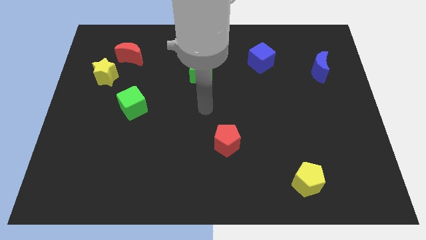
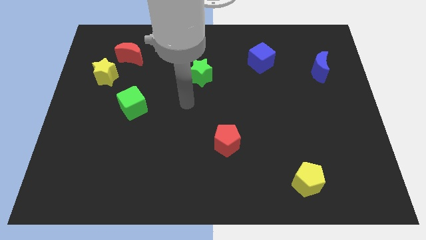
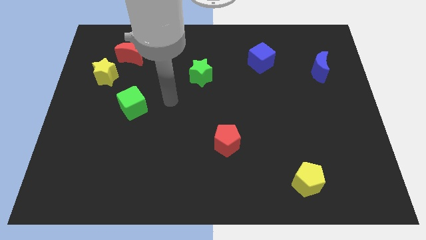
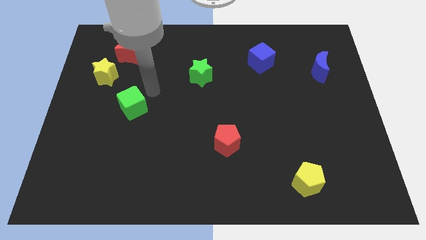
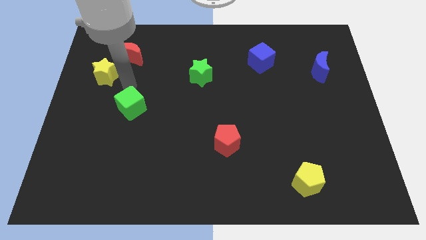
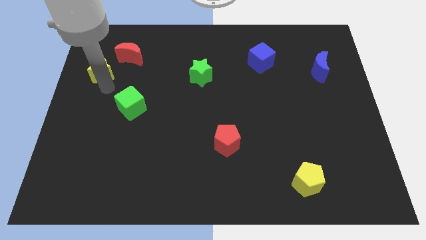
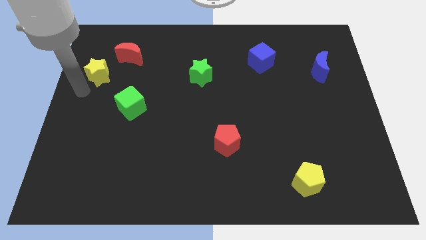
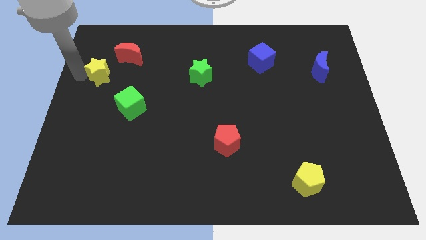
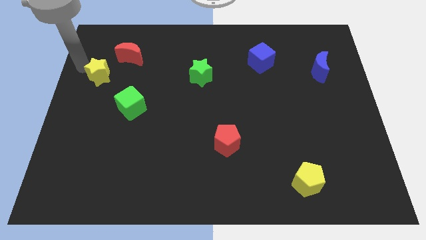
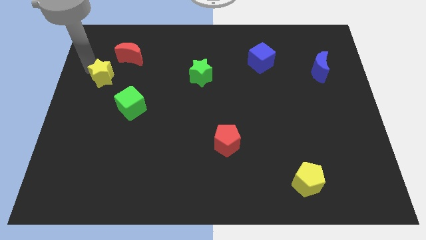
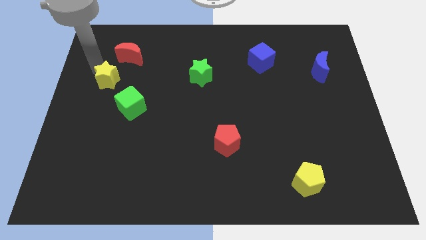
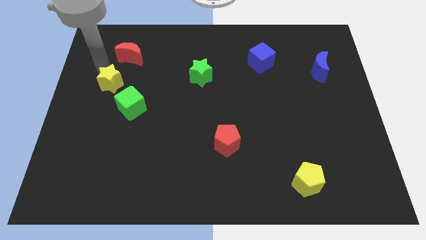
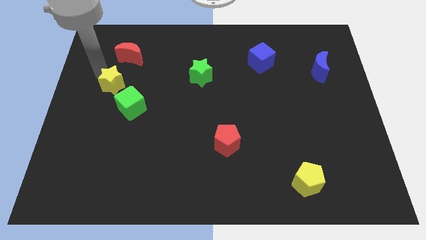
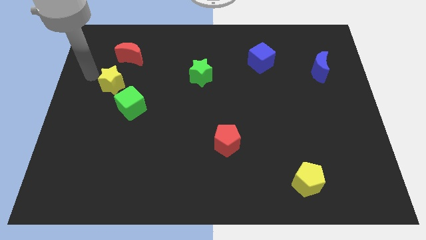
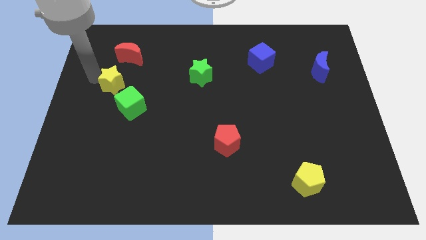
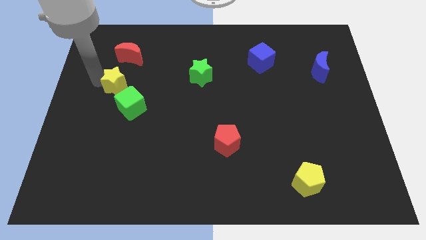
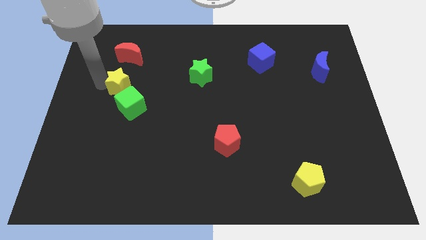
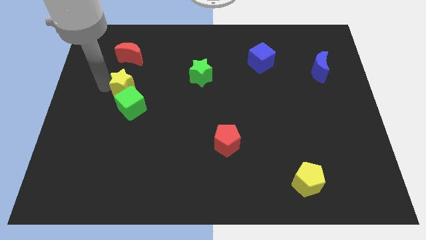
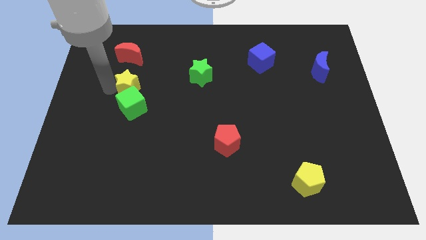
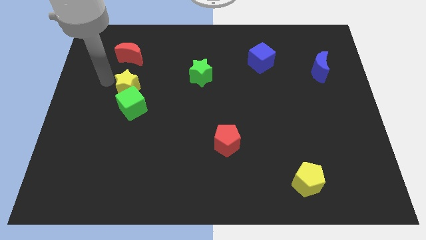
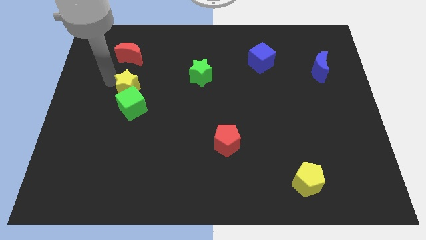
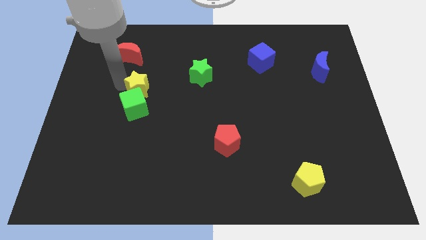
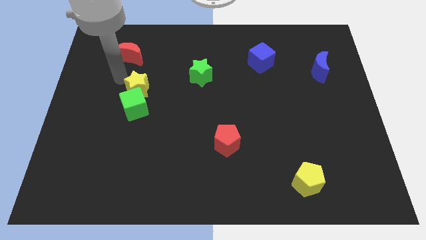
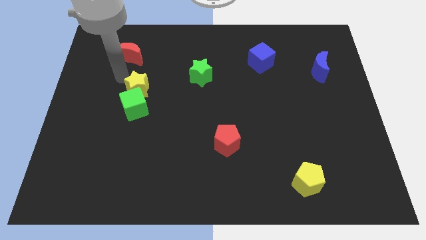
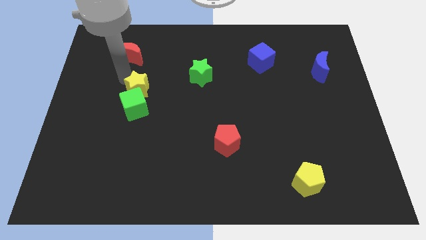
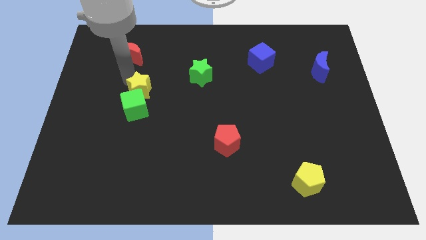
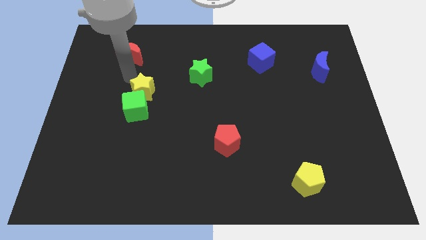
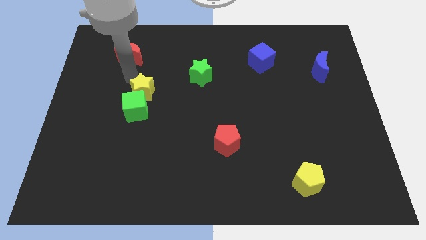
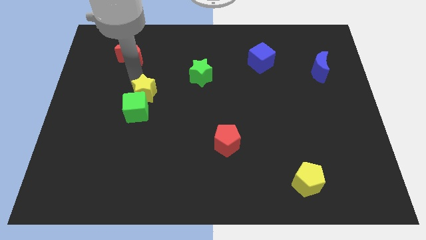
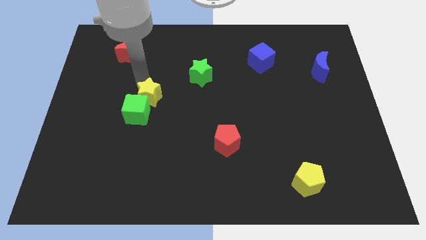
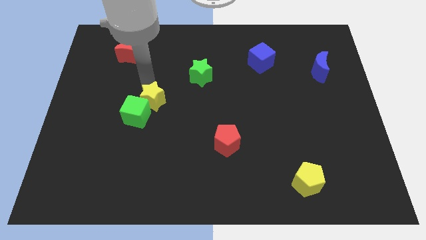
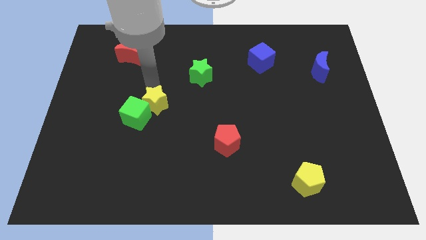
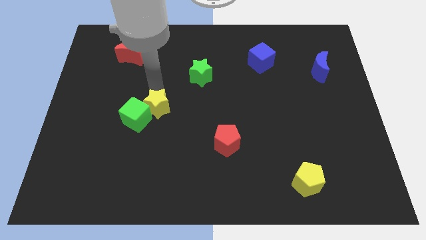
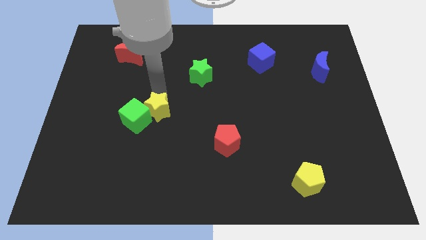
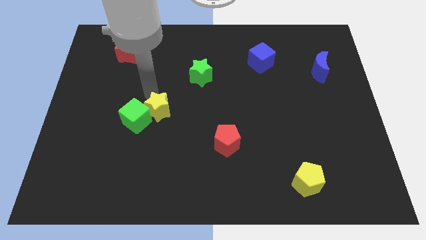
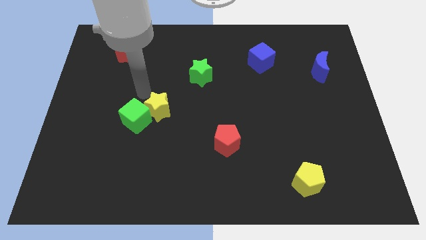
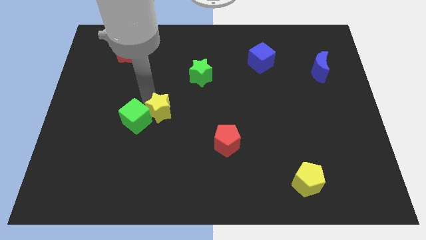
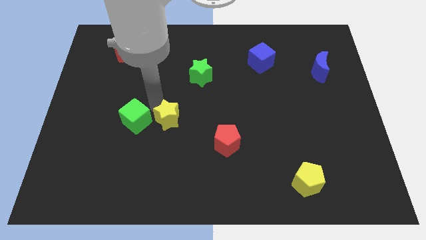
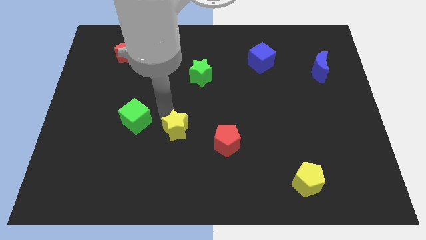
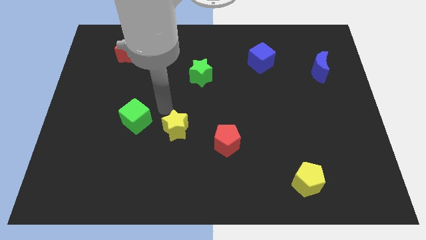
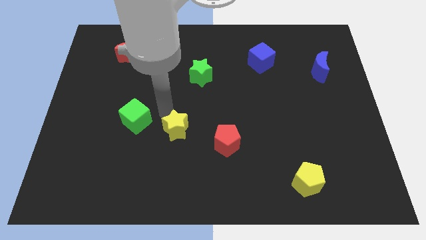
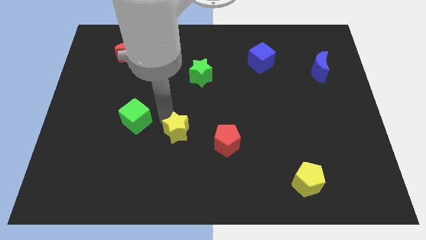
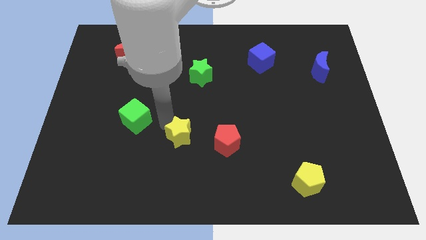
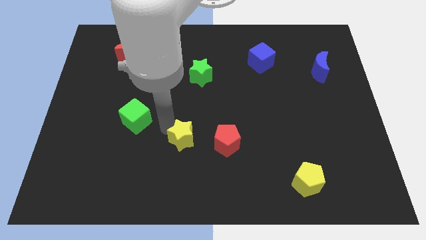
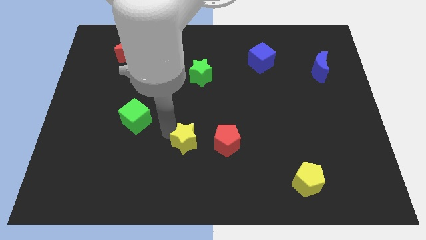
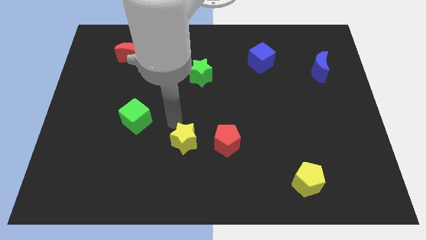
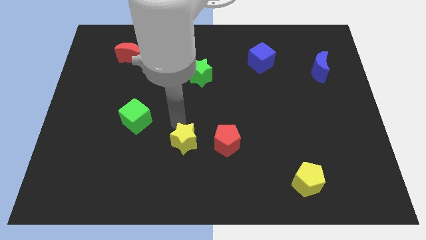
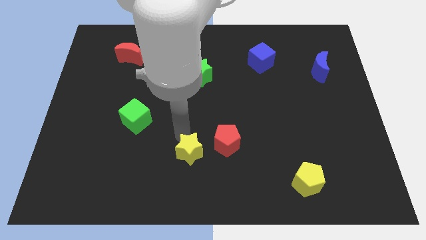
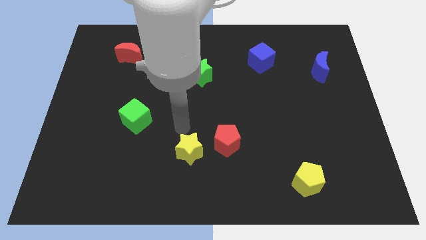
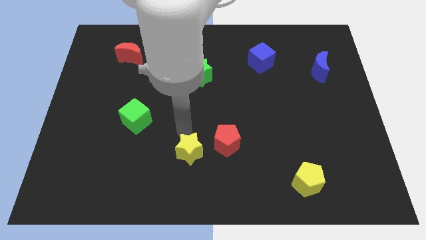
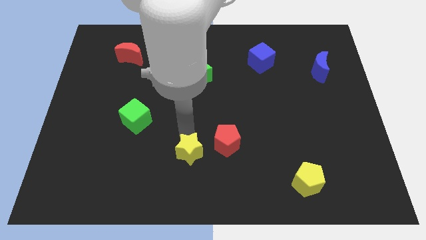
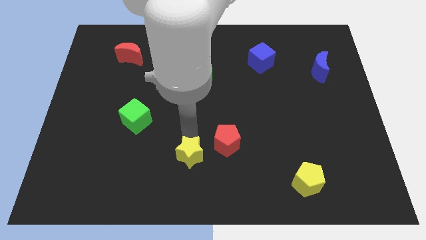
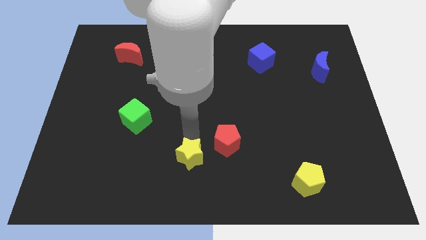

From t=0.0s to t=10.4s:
put the yellow star to the bottom

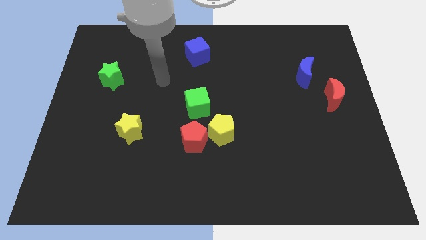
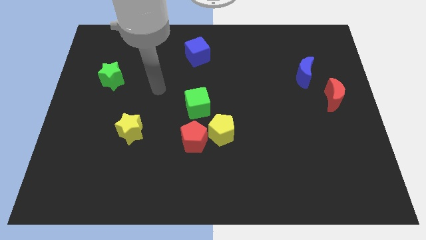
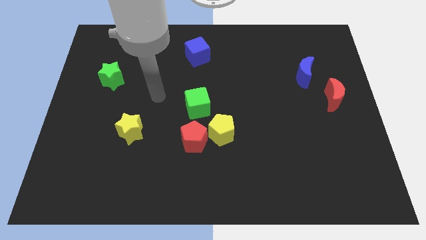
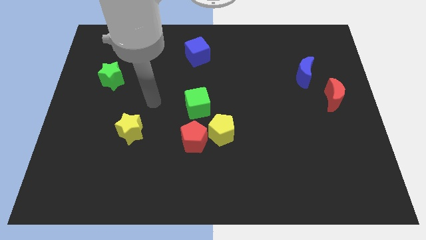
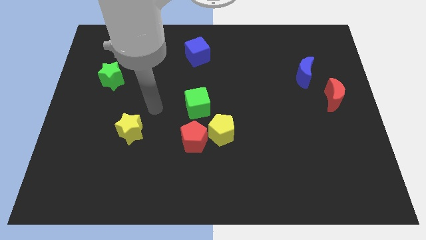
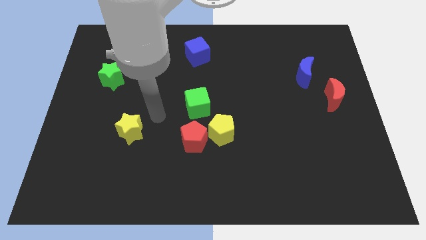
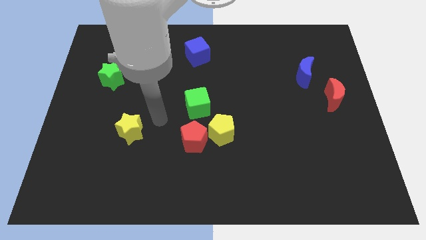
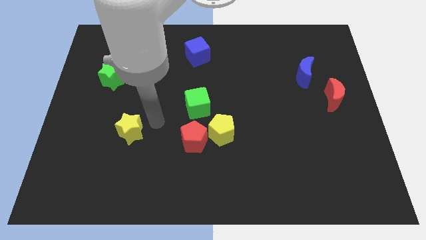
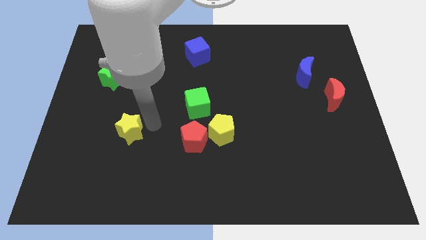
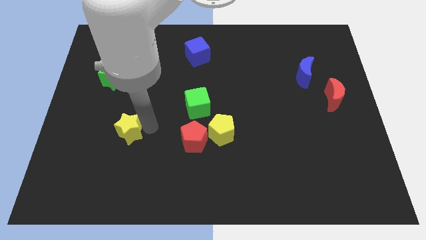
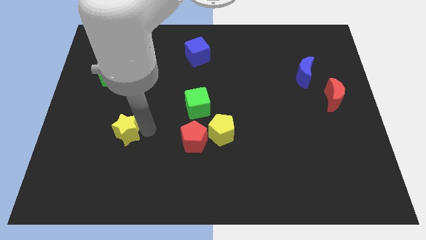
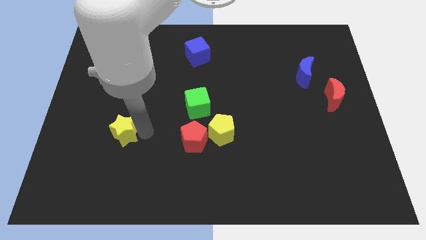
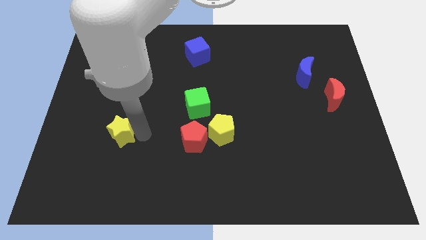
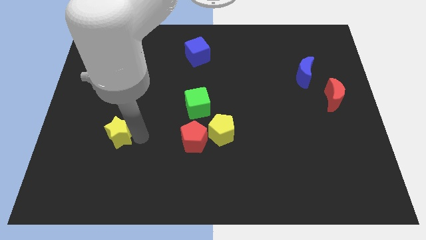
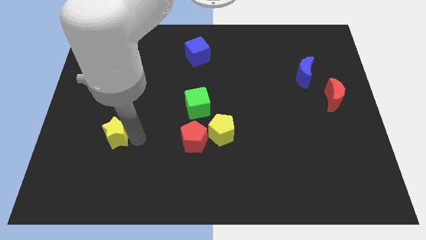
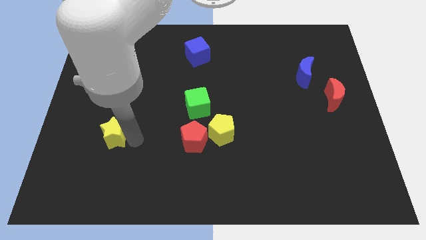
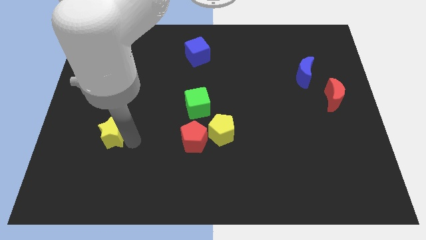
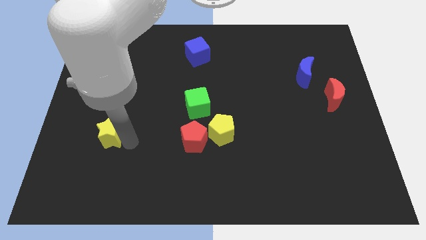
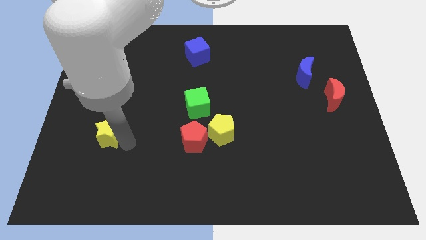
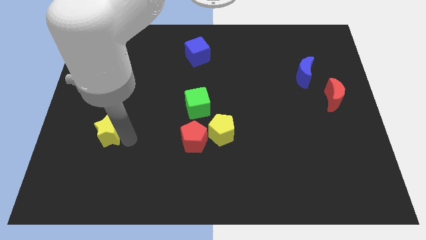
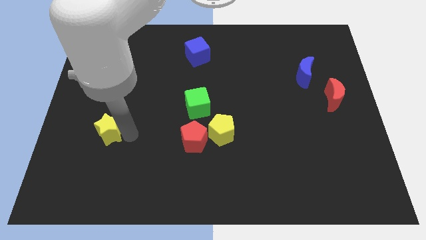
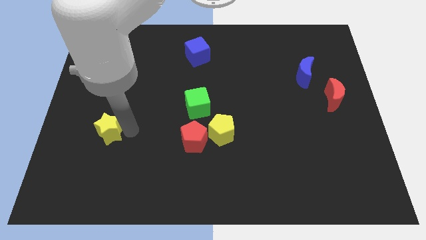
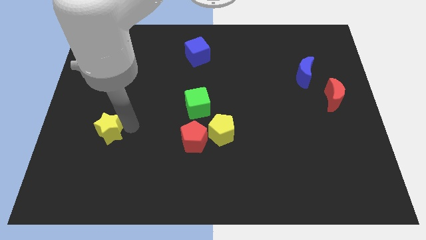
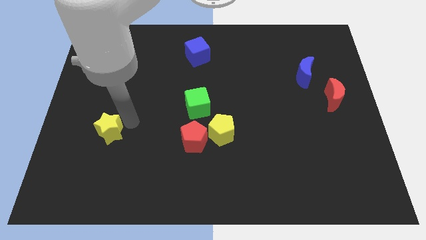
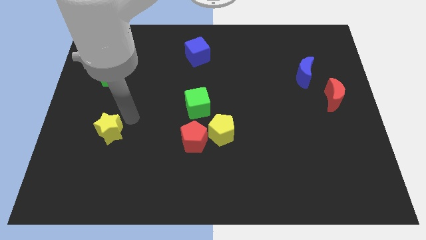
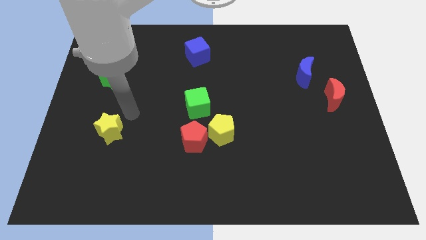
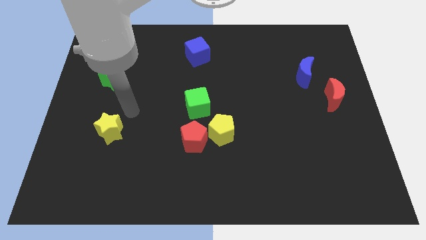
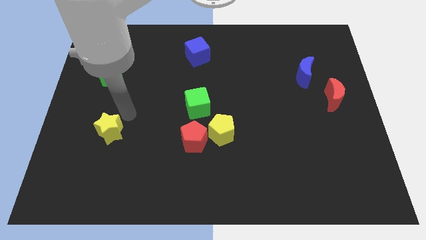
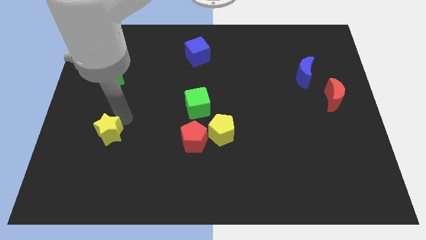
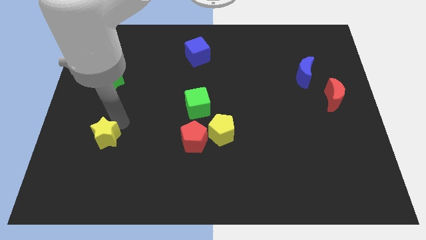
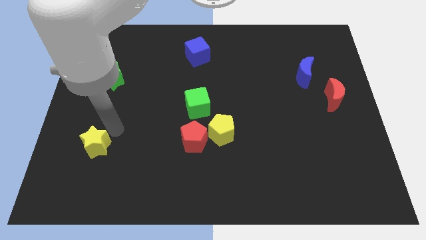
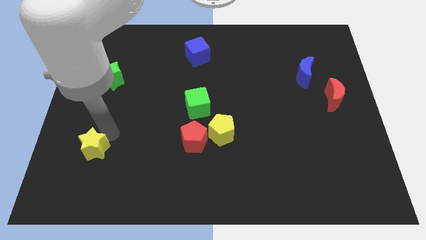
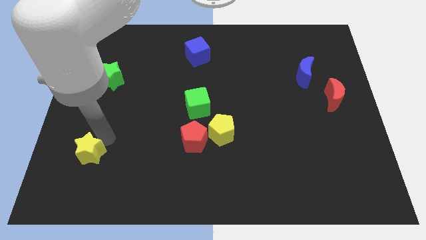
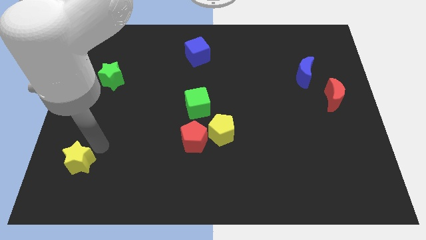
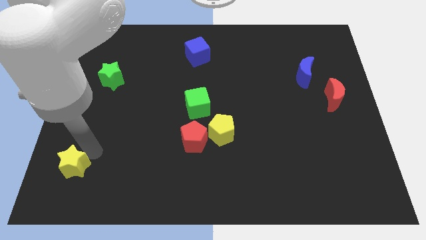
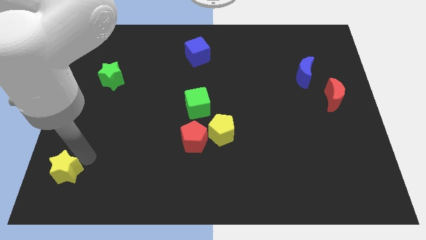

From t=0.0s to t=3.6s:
push the yellow star to the bottom left of the board
